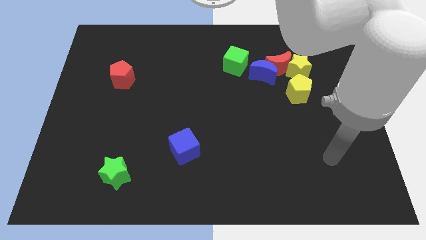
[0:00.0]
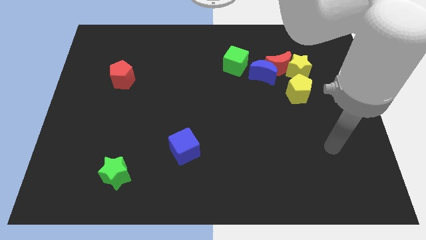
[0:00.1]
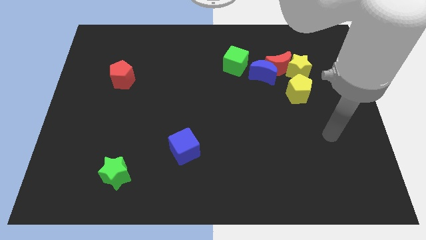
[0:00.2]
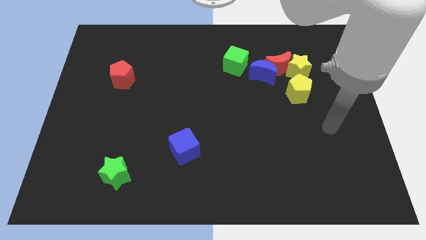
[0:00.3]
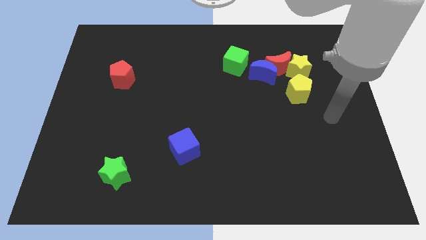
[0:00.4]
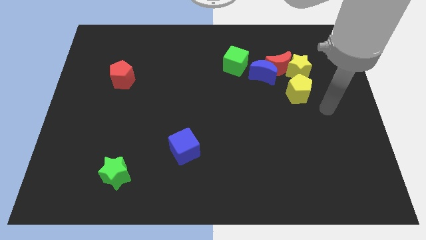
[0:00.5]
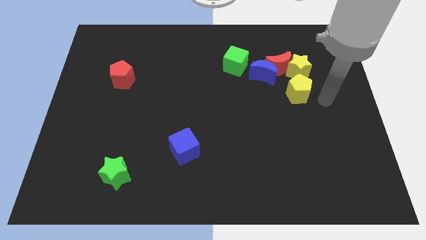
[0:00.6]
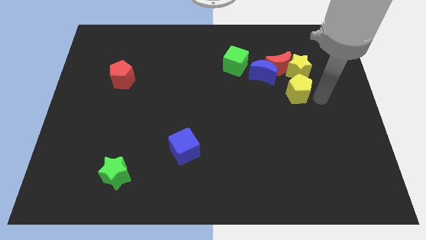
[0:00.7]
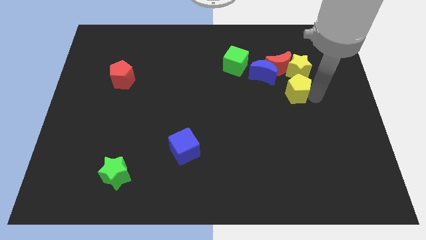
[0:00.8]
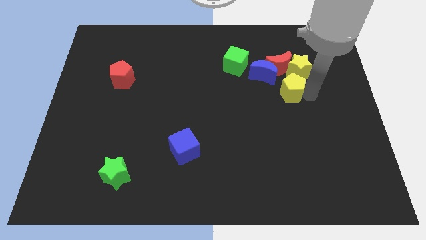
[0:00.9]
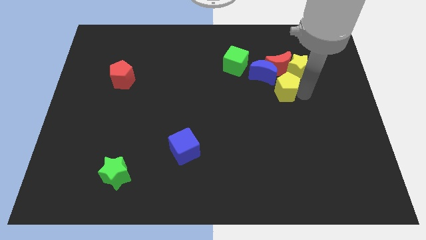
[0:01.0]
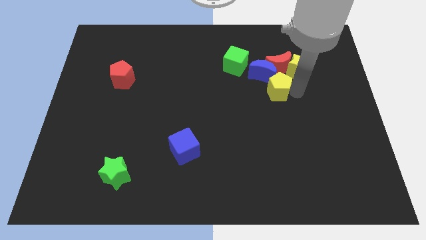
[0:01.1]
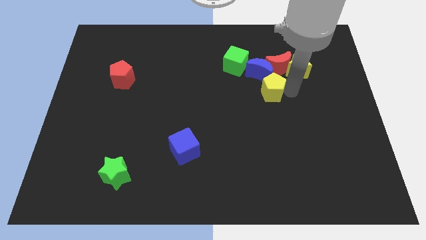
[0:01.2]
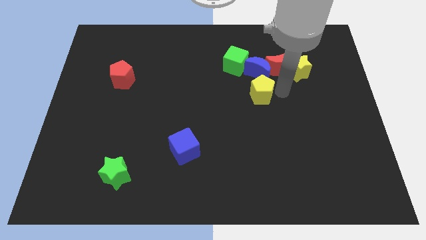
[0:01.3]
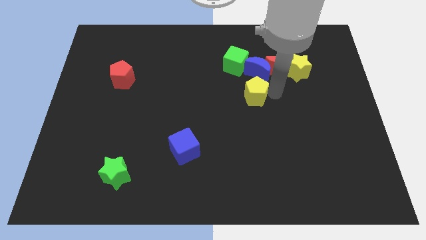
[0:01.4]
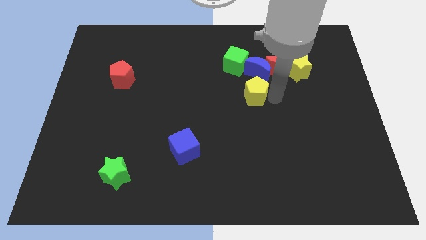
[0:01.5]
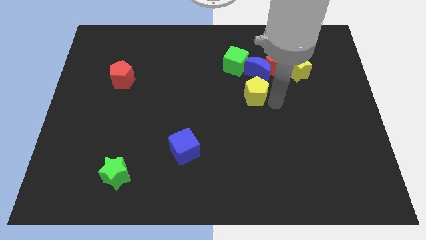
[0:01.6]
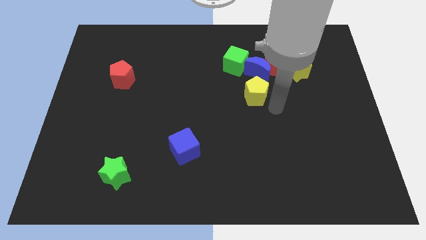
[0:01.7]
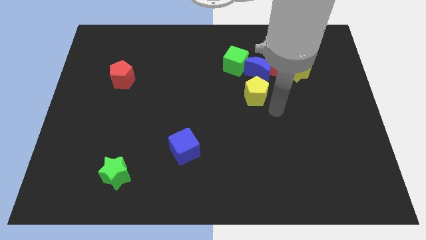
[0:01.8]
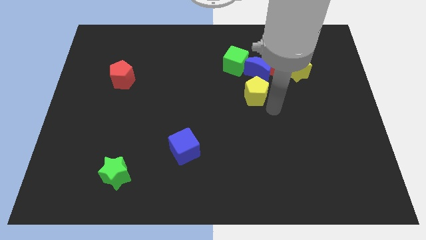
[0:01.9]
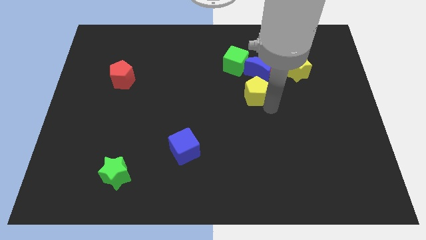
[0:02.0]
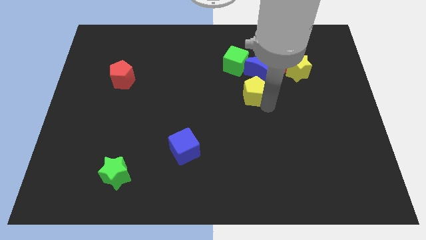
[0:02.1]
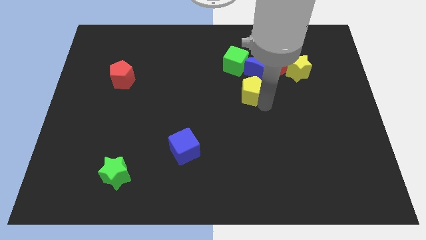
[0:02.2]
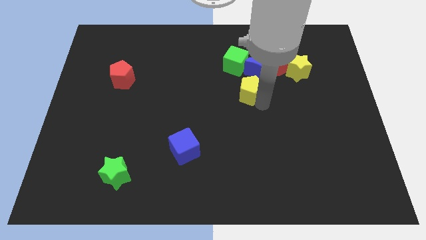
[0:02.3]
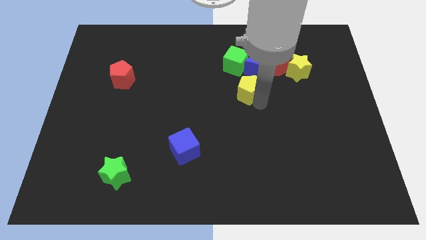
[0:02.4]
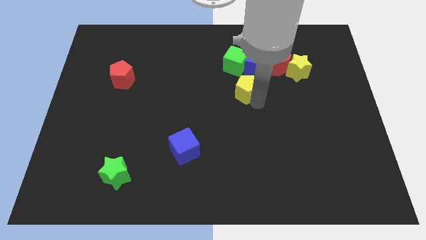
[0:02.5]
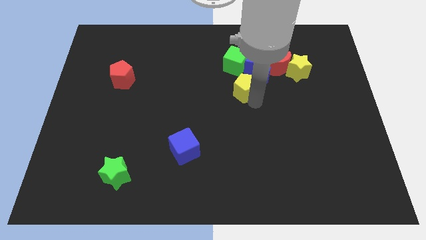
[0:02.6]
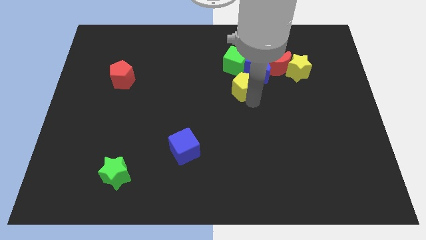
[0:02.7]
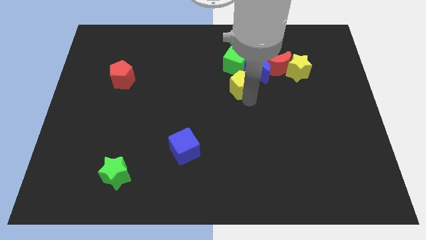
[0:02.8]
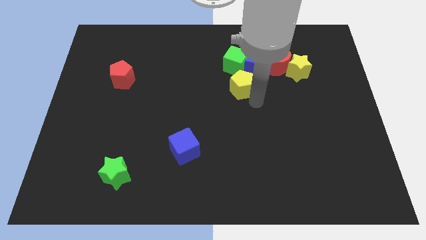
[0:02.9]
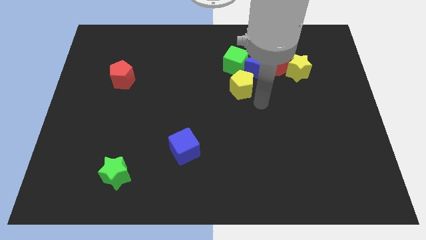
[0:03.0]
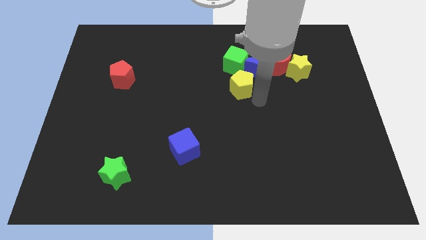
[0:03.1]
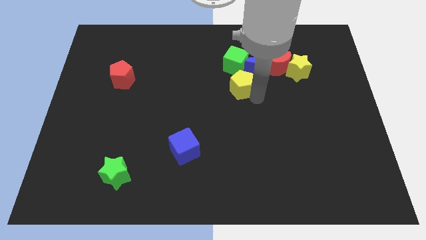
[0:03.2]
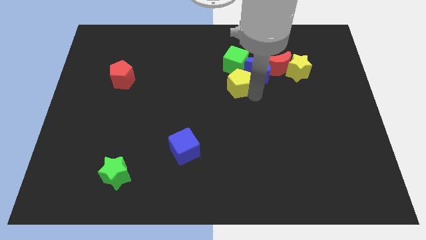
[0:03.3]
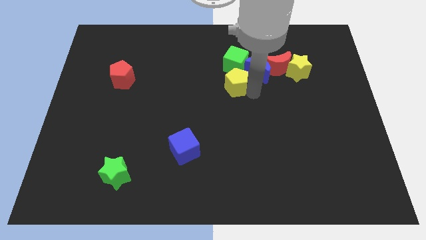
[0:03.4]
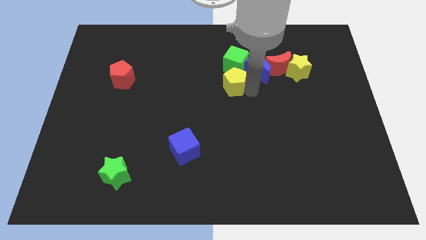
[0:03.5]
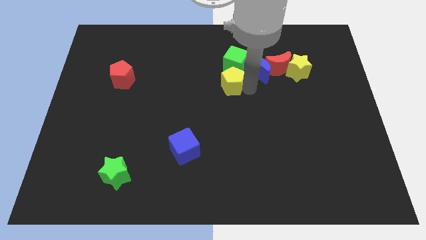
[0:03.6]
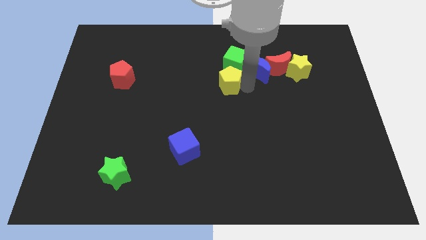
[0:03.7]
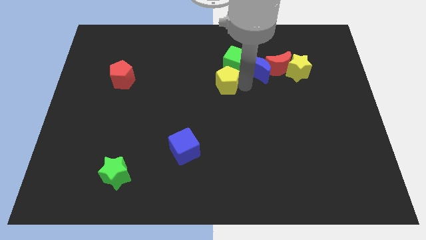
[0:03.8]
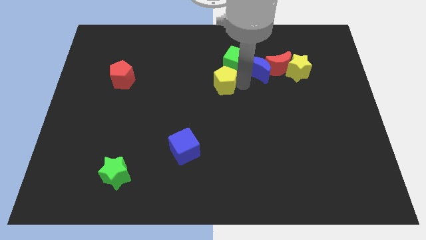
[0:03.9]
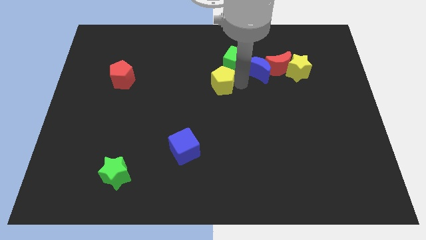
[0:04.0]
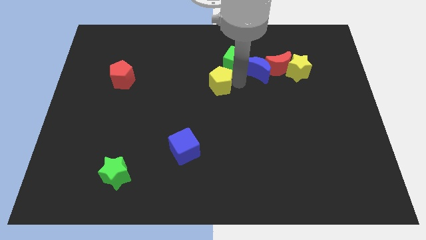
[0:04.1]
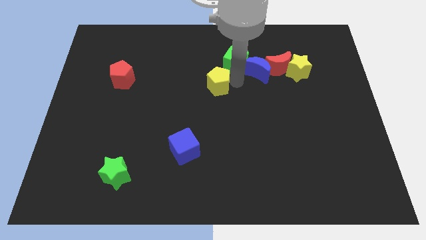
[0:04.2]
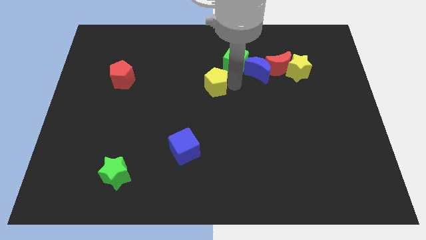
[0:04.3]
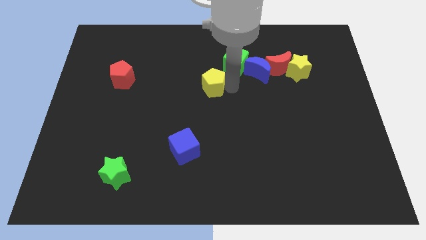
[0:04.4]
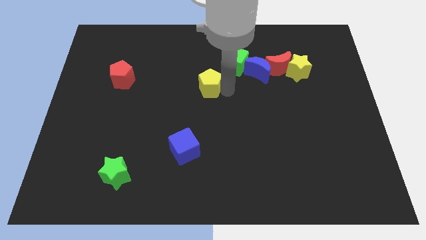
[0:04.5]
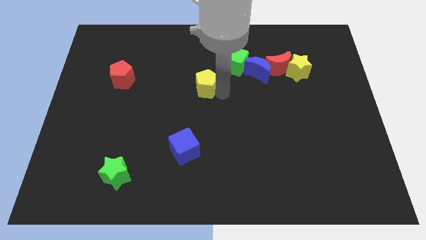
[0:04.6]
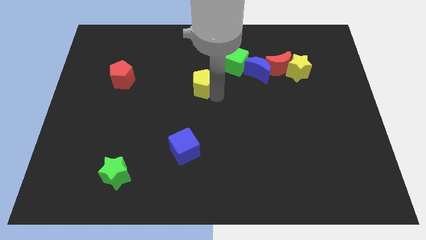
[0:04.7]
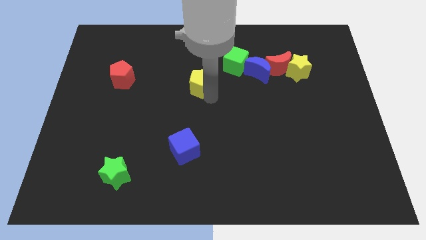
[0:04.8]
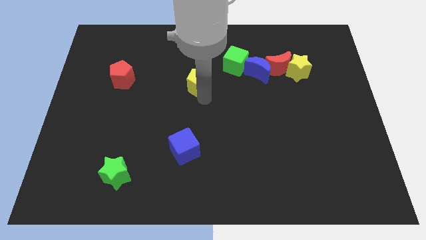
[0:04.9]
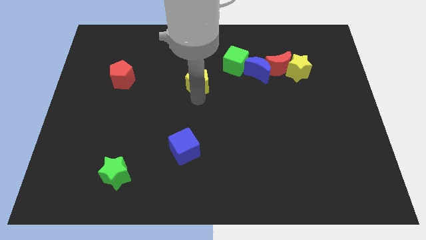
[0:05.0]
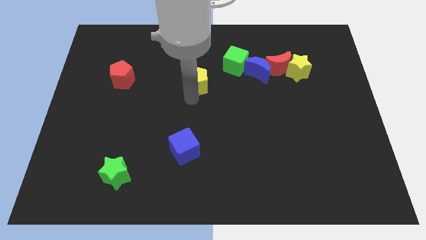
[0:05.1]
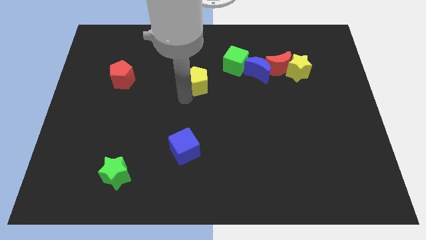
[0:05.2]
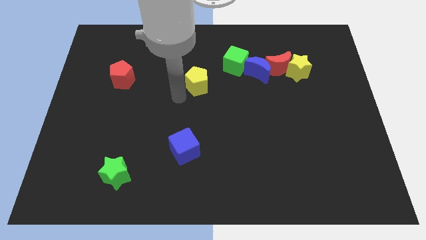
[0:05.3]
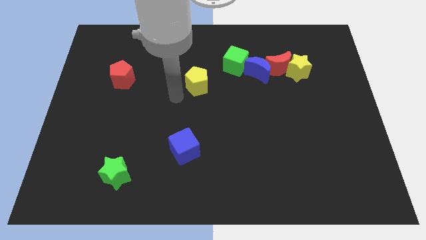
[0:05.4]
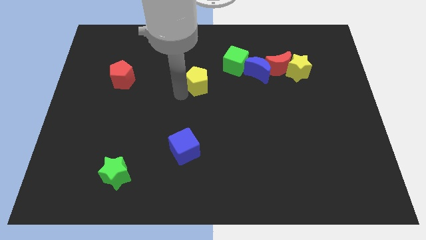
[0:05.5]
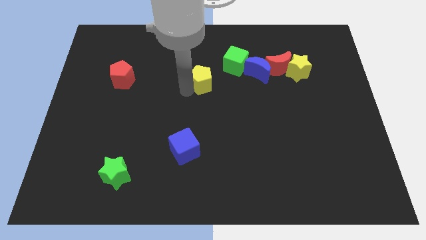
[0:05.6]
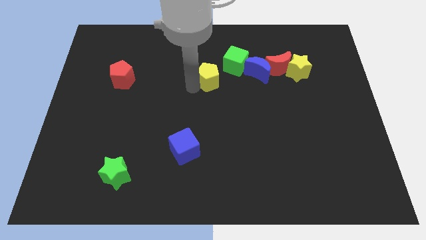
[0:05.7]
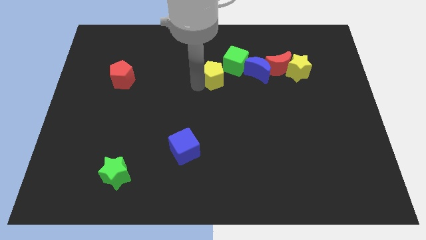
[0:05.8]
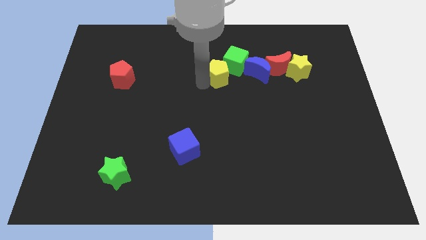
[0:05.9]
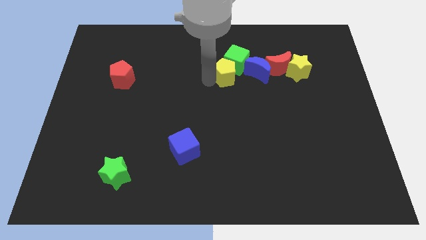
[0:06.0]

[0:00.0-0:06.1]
push the yellow pentagon to the left side of the red moon
